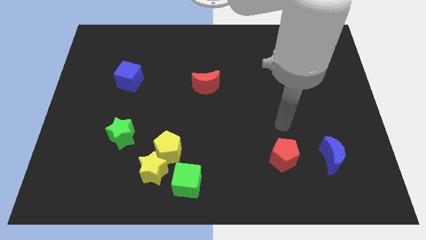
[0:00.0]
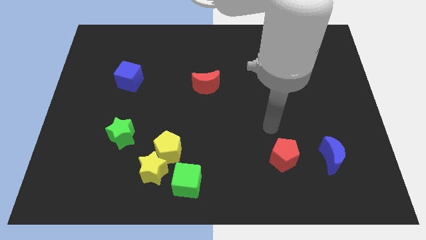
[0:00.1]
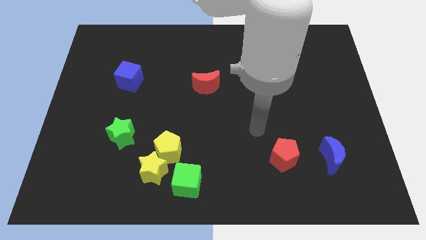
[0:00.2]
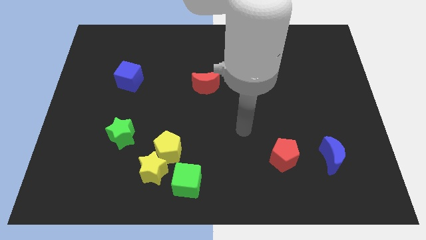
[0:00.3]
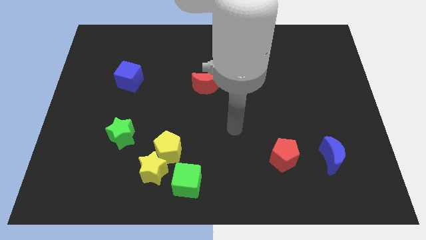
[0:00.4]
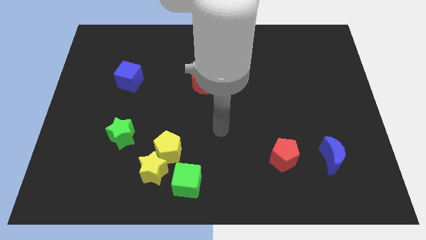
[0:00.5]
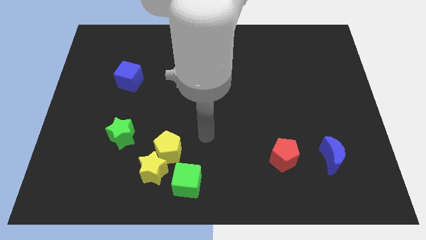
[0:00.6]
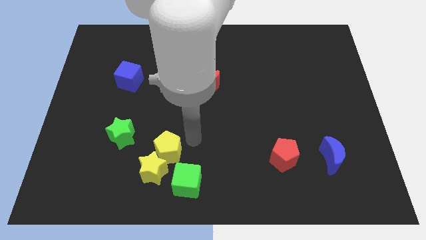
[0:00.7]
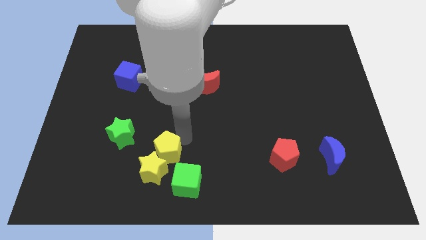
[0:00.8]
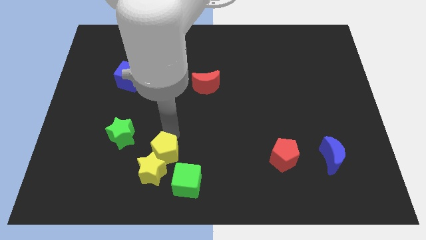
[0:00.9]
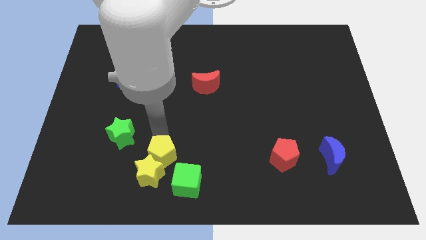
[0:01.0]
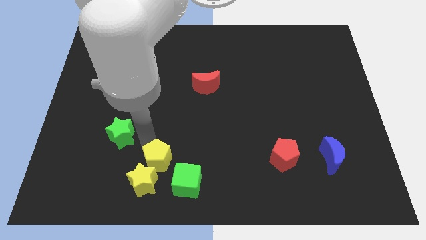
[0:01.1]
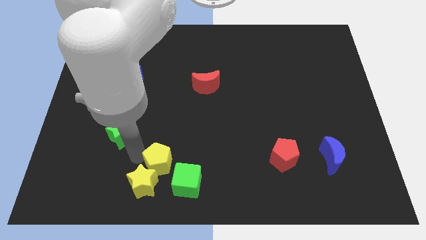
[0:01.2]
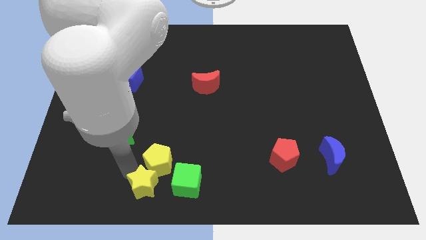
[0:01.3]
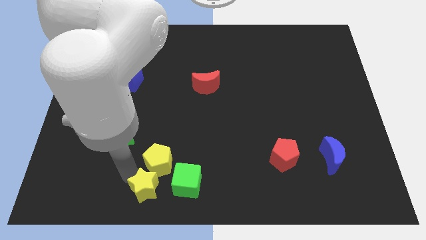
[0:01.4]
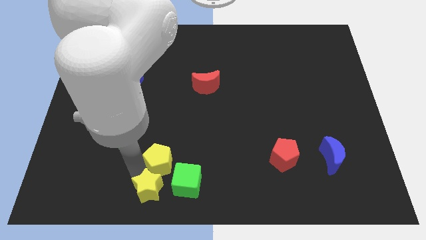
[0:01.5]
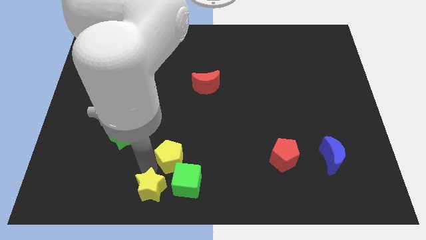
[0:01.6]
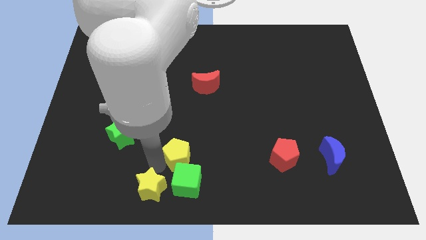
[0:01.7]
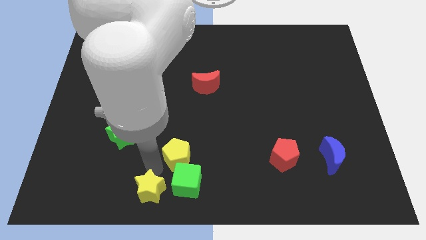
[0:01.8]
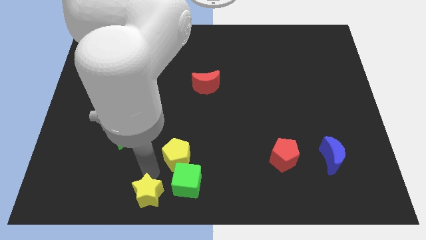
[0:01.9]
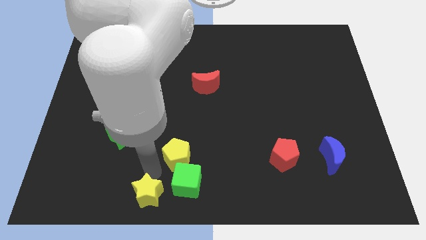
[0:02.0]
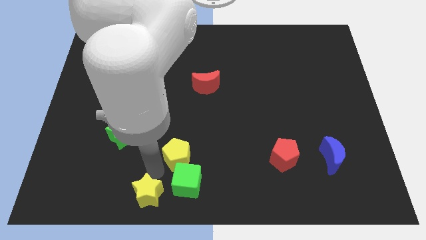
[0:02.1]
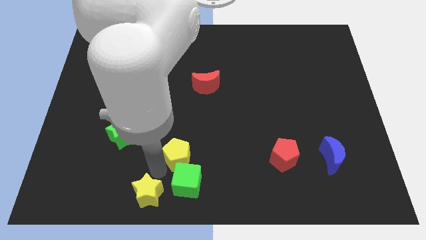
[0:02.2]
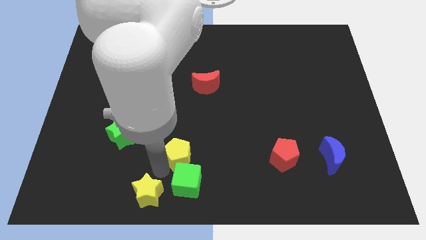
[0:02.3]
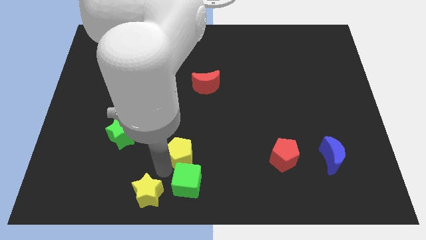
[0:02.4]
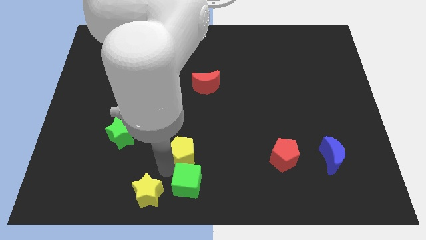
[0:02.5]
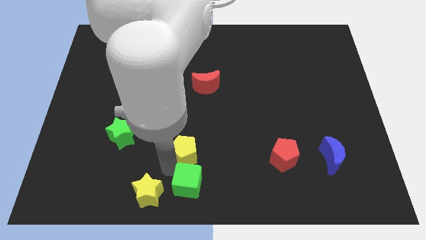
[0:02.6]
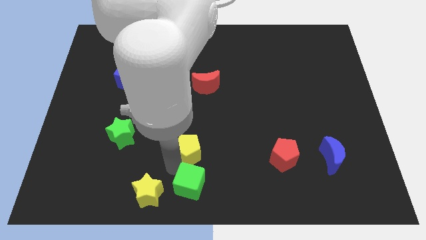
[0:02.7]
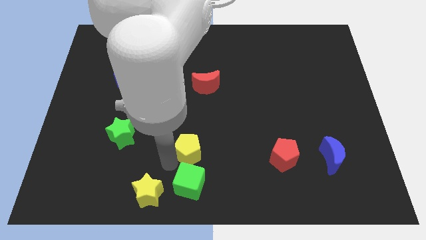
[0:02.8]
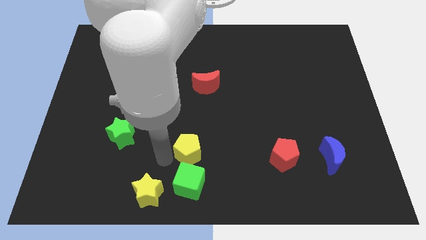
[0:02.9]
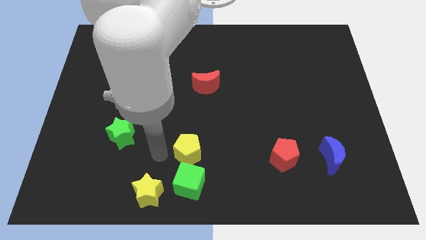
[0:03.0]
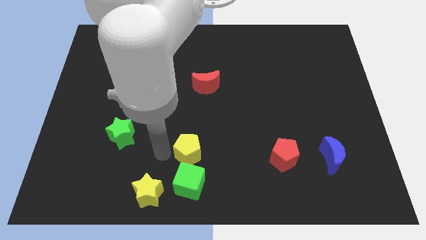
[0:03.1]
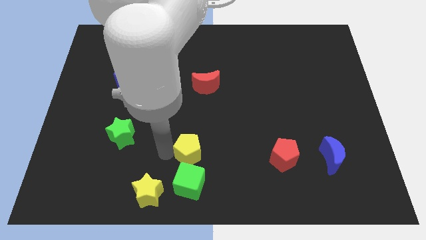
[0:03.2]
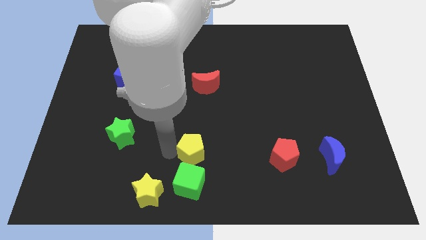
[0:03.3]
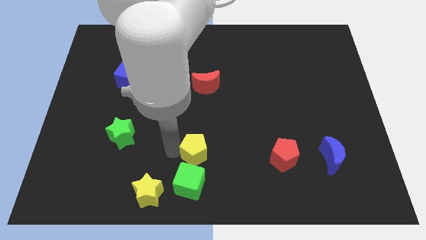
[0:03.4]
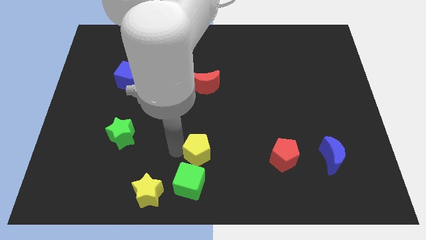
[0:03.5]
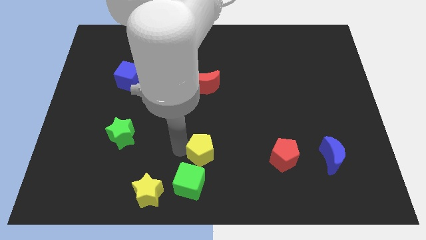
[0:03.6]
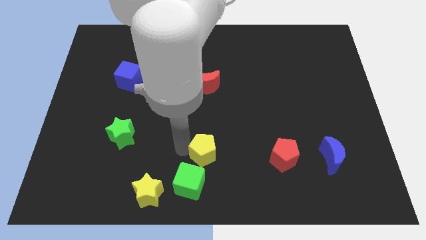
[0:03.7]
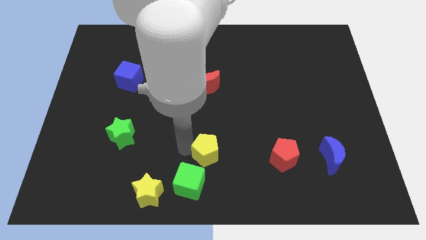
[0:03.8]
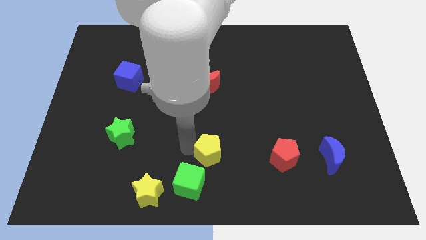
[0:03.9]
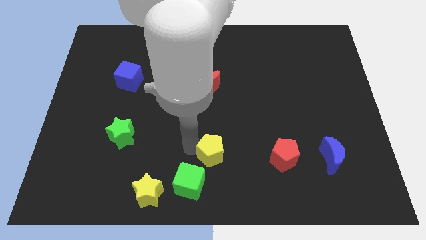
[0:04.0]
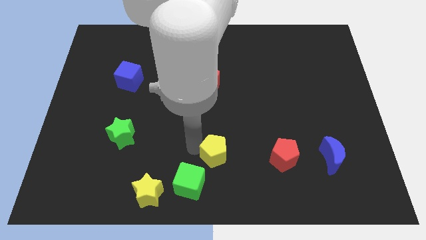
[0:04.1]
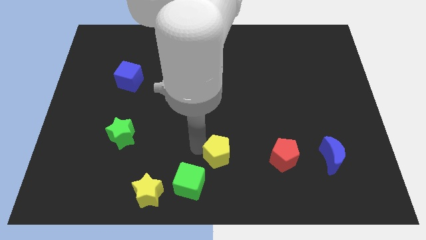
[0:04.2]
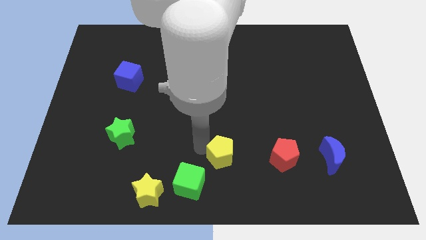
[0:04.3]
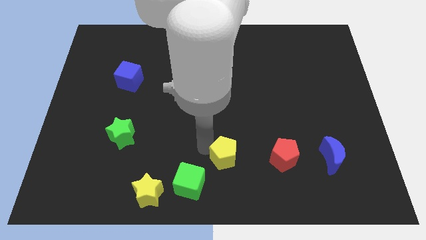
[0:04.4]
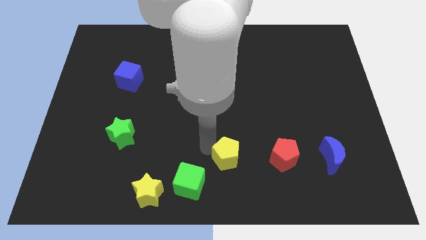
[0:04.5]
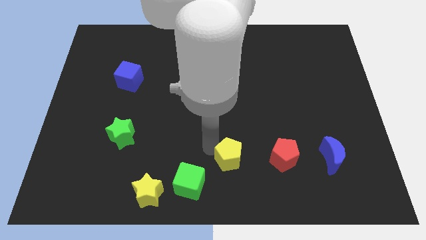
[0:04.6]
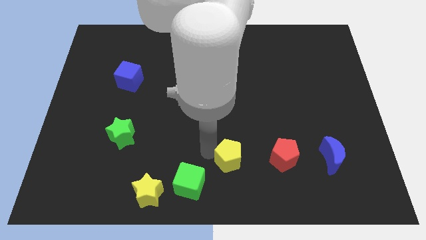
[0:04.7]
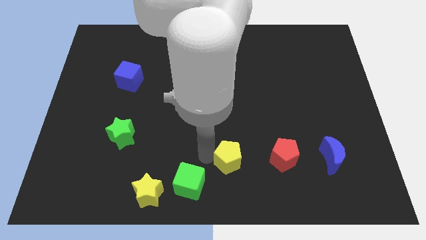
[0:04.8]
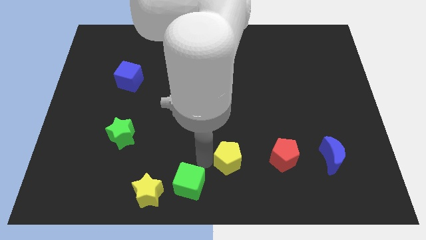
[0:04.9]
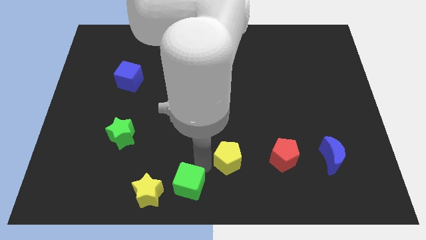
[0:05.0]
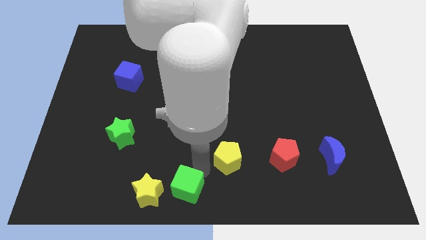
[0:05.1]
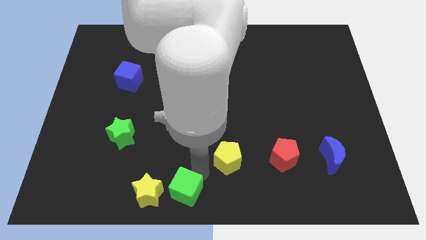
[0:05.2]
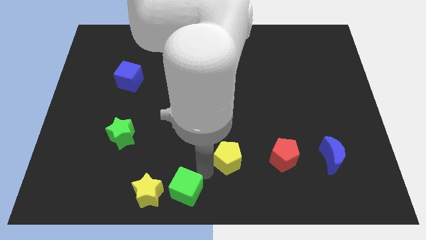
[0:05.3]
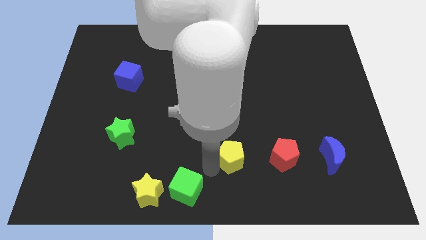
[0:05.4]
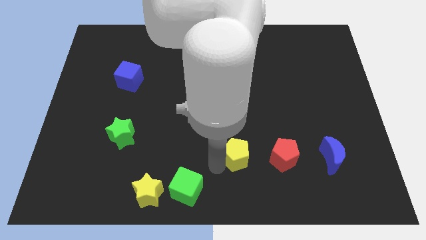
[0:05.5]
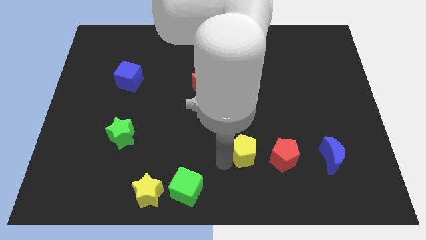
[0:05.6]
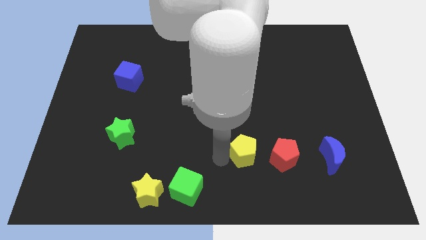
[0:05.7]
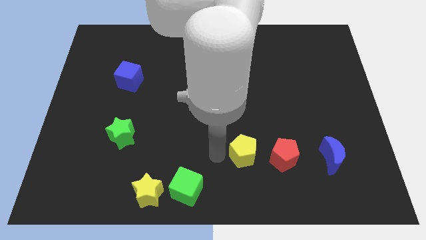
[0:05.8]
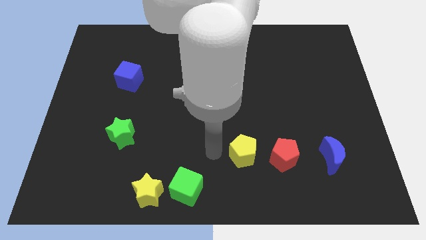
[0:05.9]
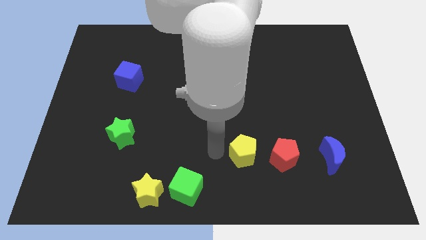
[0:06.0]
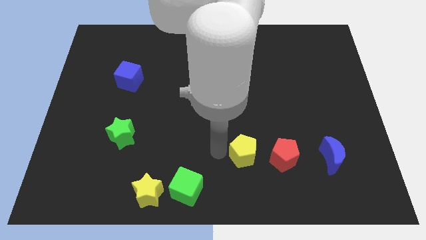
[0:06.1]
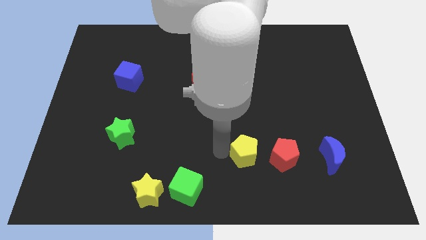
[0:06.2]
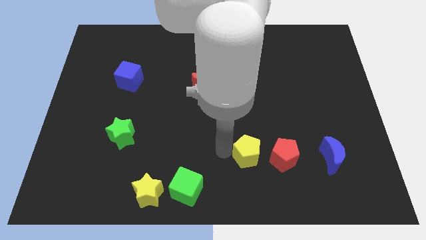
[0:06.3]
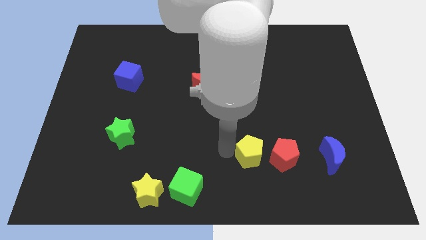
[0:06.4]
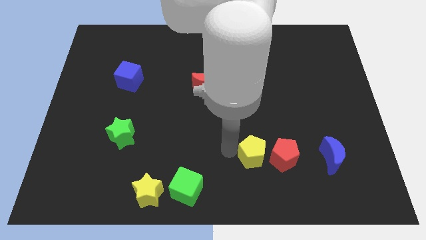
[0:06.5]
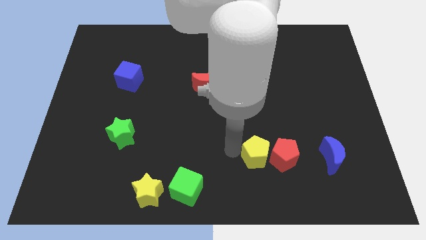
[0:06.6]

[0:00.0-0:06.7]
move the yellow pentagon towards the red pentagon

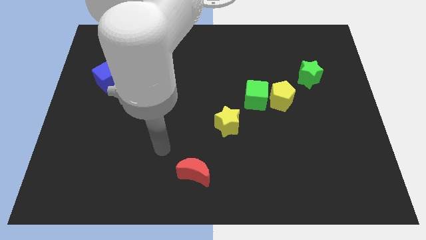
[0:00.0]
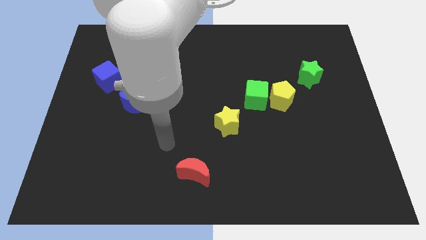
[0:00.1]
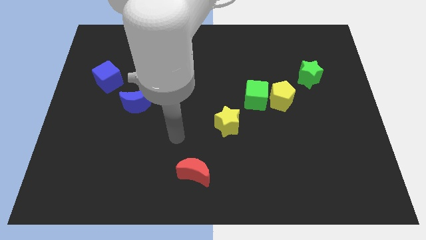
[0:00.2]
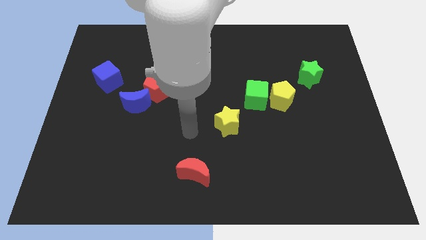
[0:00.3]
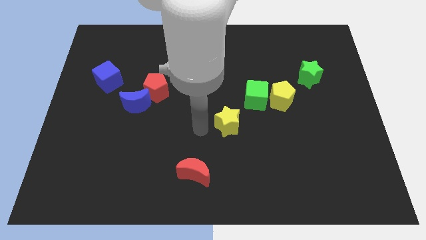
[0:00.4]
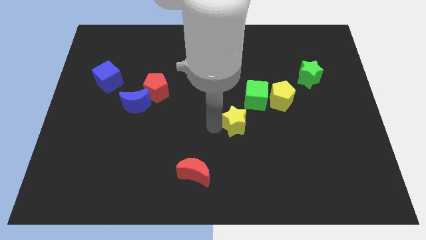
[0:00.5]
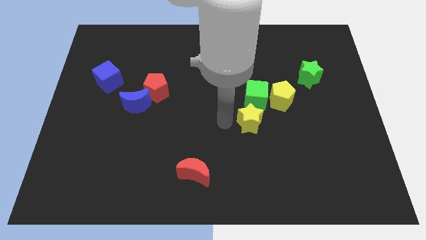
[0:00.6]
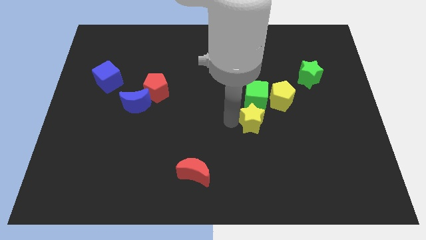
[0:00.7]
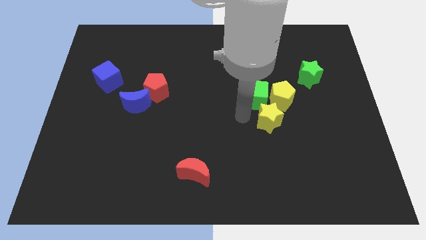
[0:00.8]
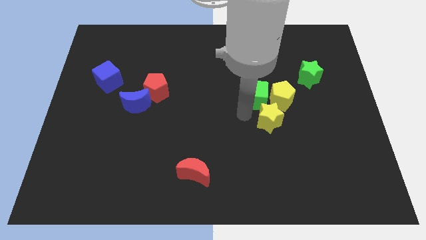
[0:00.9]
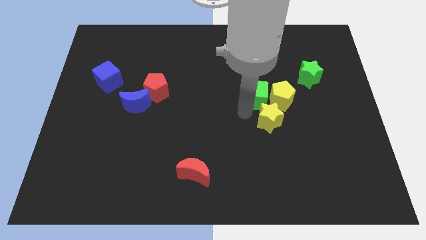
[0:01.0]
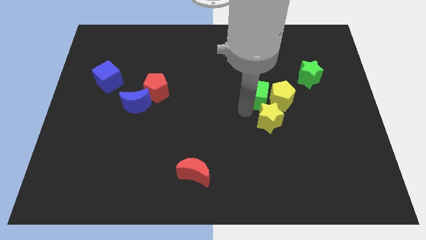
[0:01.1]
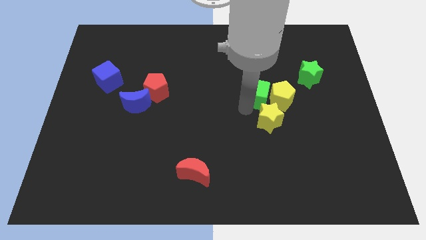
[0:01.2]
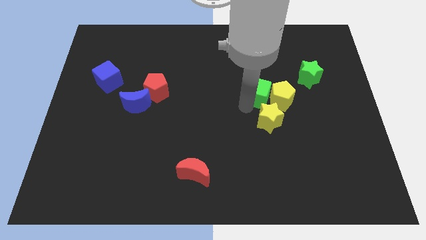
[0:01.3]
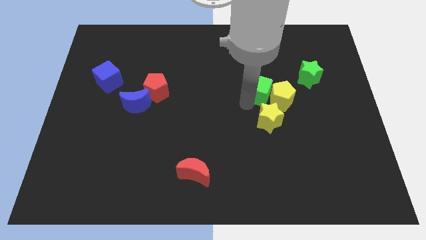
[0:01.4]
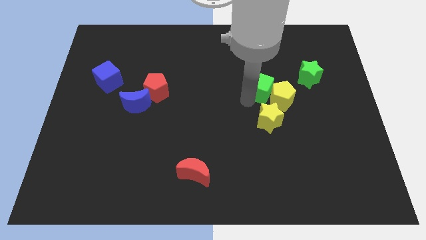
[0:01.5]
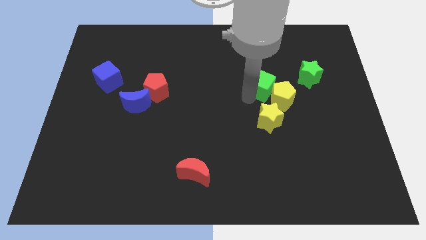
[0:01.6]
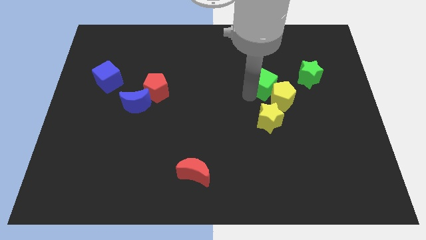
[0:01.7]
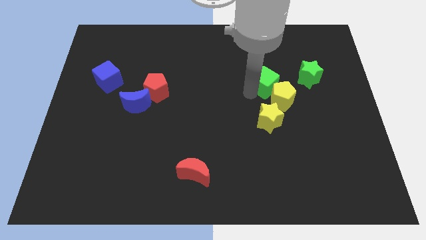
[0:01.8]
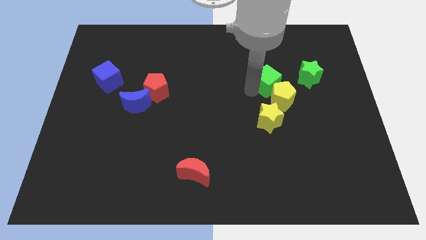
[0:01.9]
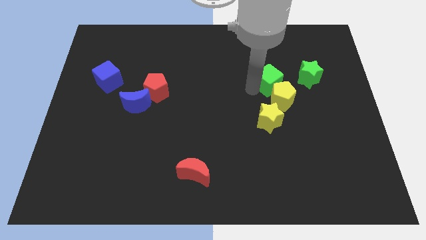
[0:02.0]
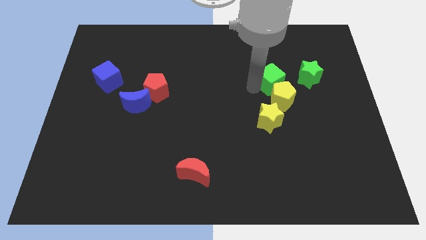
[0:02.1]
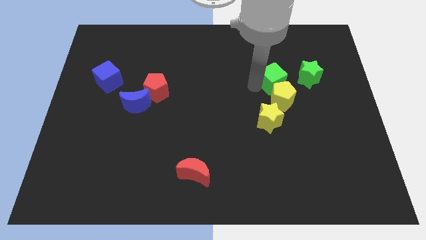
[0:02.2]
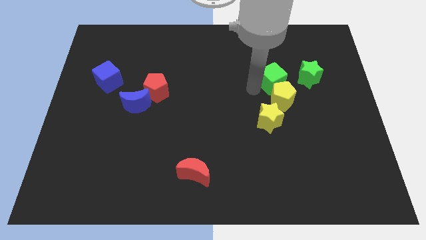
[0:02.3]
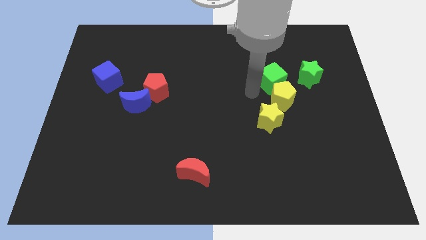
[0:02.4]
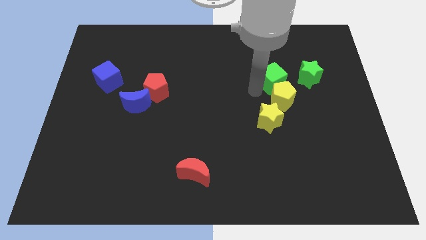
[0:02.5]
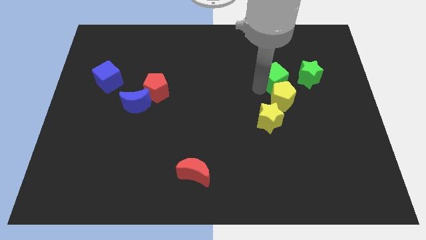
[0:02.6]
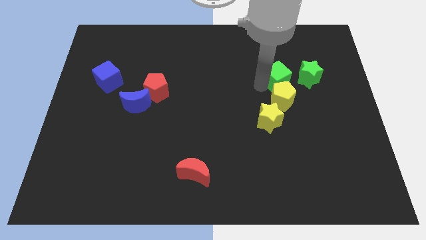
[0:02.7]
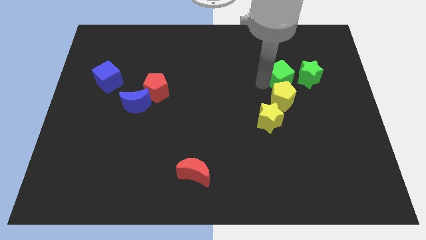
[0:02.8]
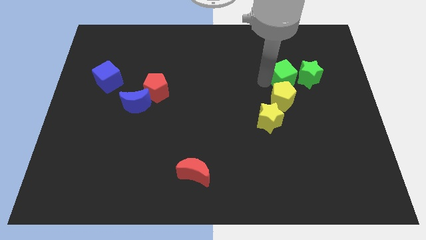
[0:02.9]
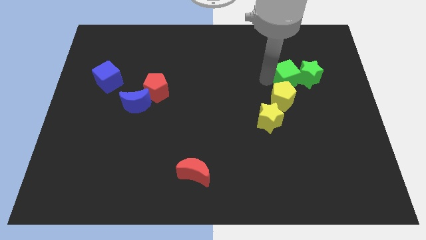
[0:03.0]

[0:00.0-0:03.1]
slide the green cube to the green star
